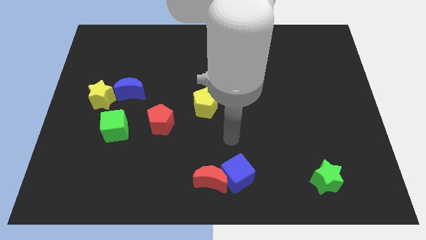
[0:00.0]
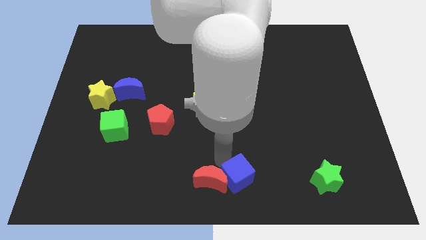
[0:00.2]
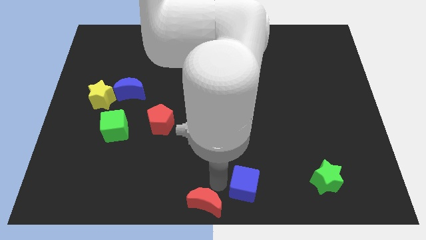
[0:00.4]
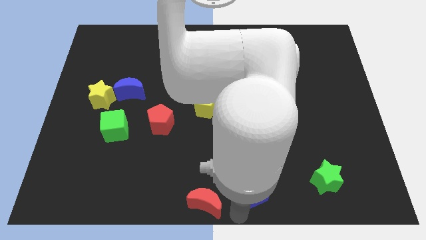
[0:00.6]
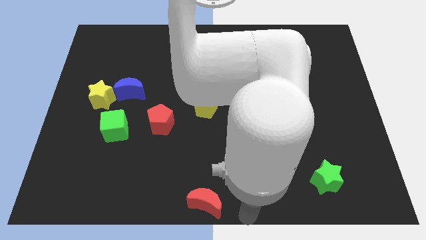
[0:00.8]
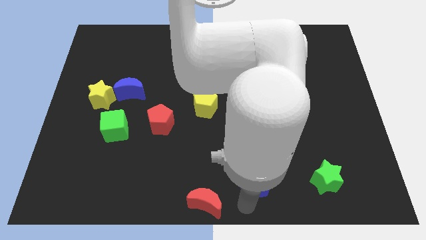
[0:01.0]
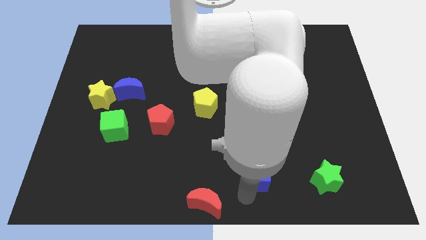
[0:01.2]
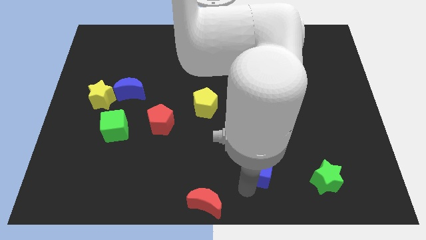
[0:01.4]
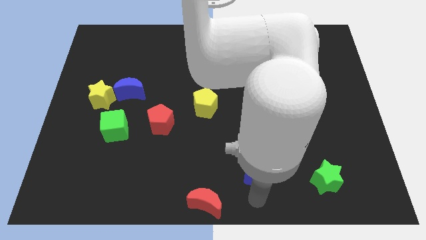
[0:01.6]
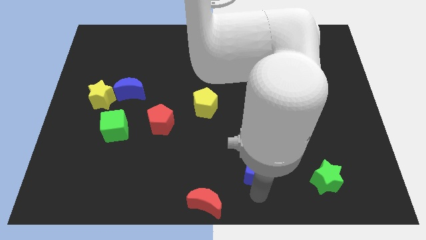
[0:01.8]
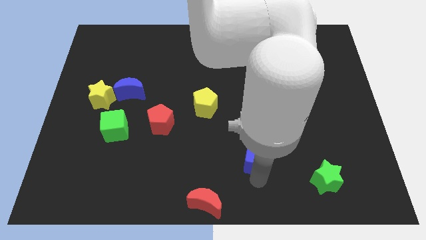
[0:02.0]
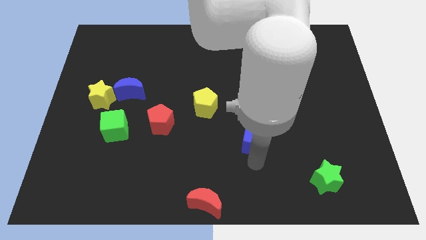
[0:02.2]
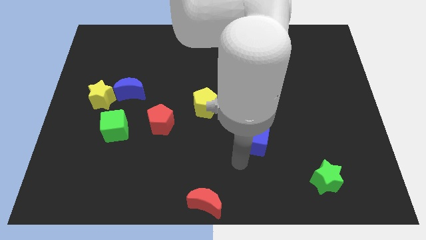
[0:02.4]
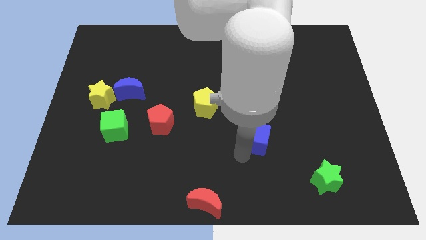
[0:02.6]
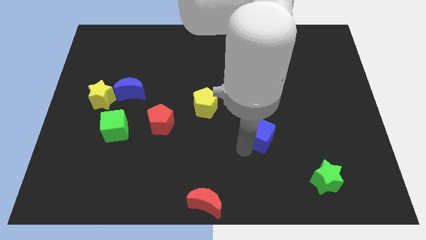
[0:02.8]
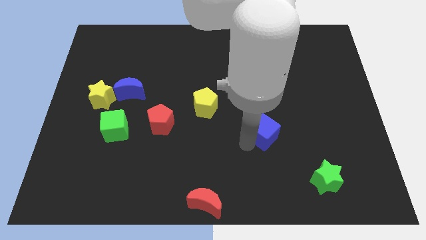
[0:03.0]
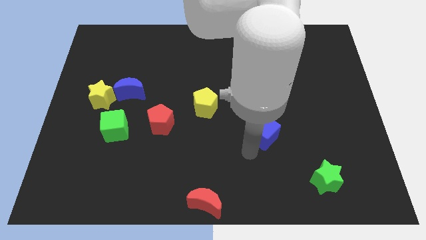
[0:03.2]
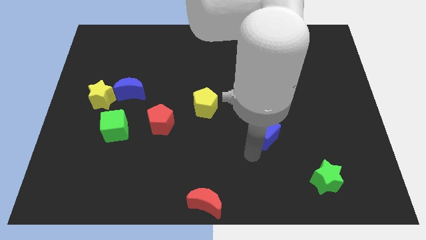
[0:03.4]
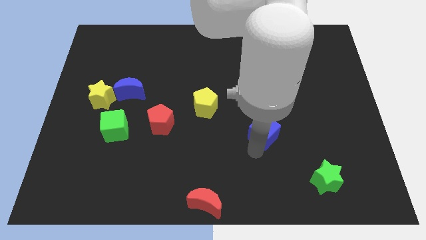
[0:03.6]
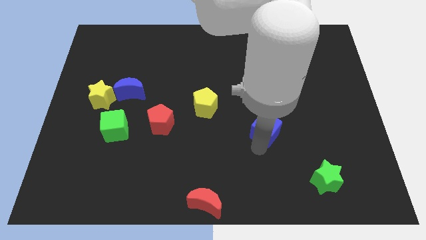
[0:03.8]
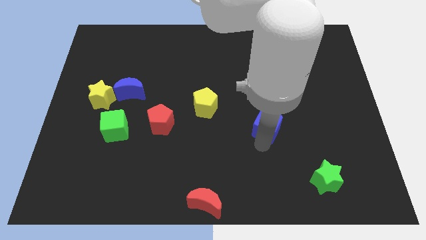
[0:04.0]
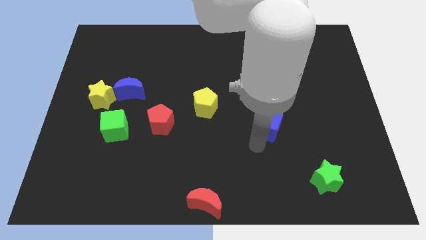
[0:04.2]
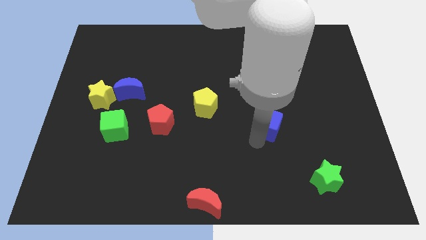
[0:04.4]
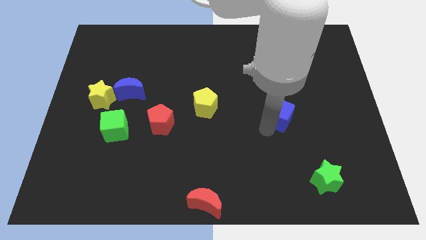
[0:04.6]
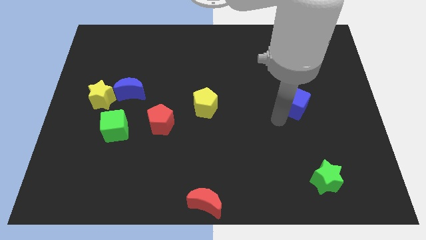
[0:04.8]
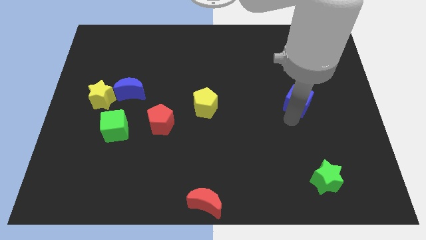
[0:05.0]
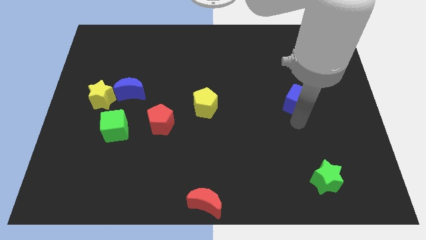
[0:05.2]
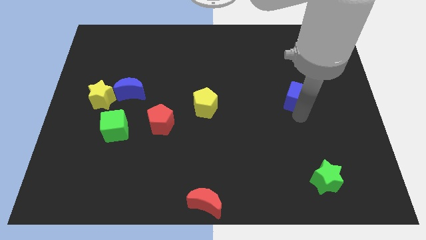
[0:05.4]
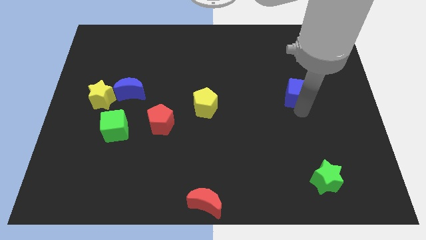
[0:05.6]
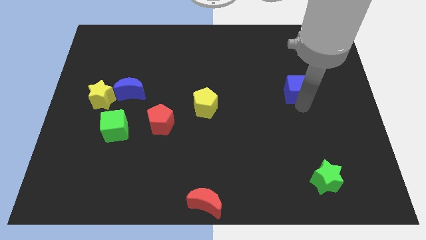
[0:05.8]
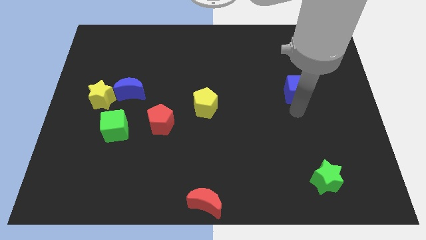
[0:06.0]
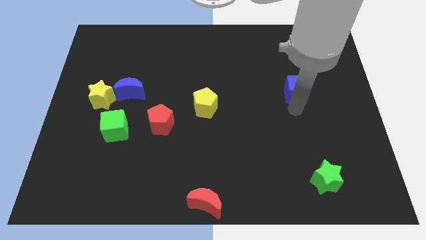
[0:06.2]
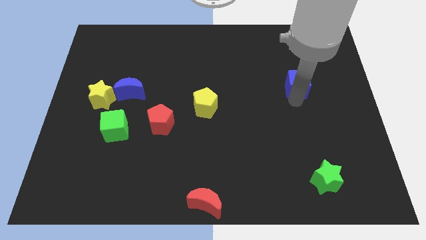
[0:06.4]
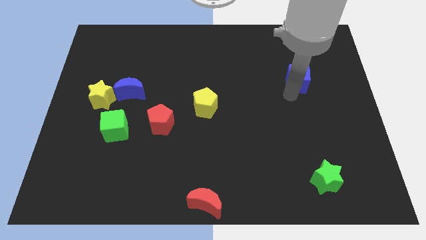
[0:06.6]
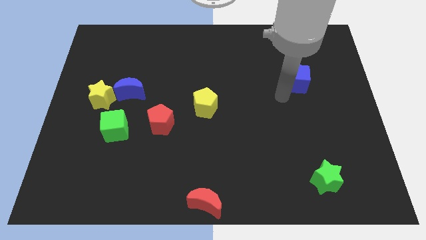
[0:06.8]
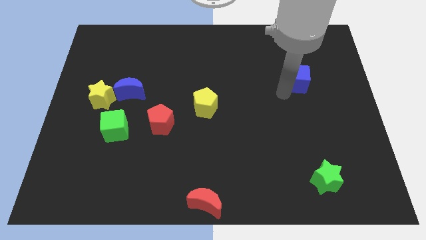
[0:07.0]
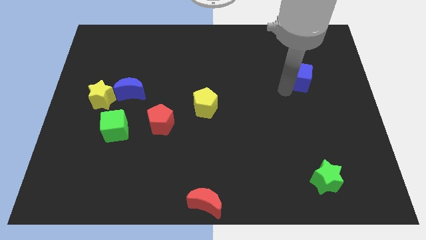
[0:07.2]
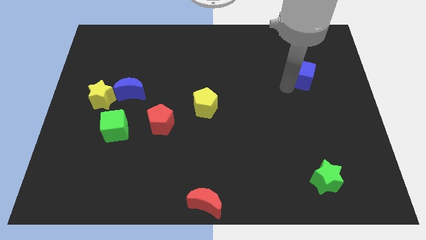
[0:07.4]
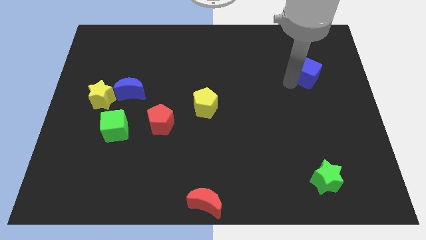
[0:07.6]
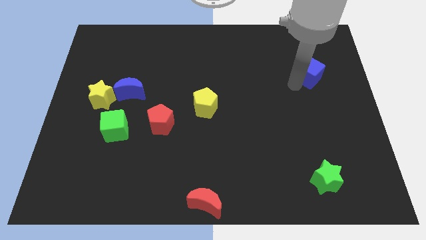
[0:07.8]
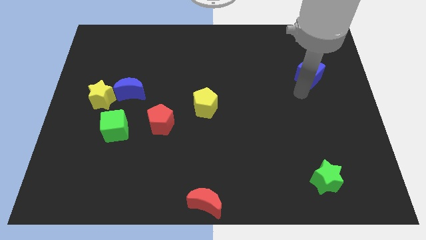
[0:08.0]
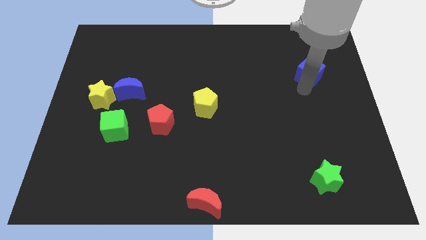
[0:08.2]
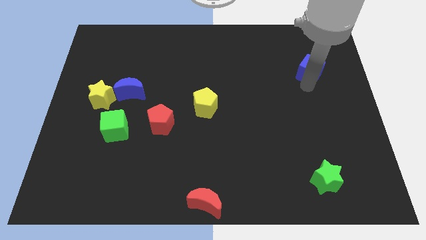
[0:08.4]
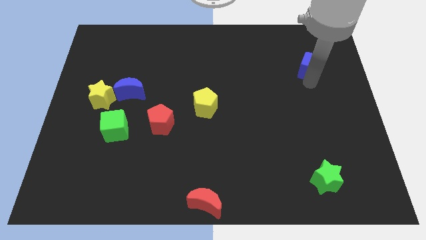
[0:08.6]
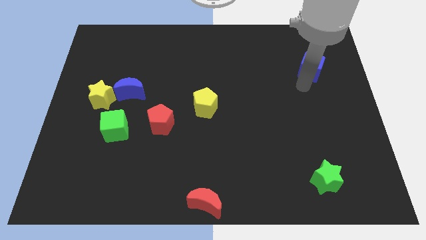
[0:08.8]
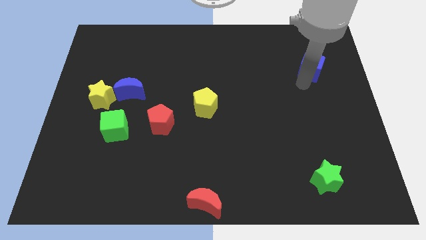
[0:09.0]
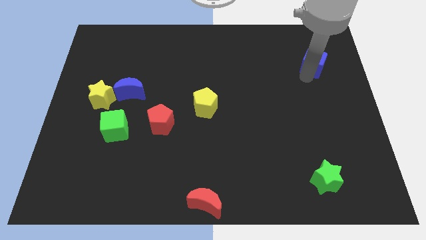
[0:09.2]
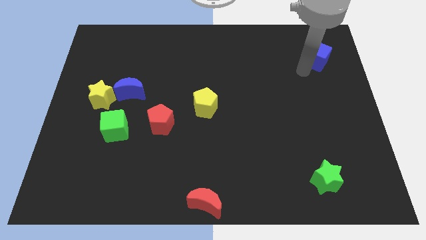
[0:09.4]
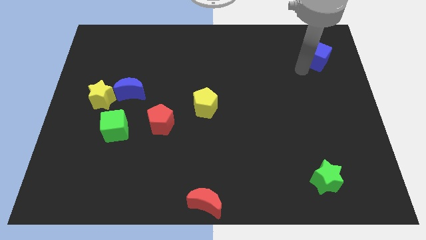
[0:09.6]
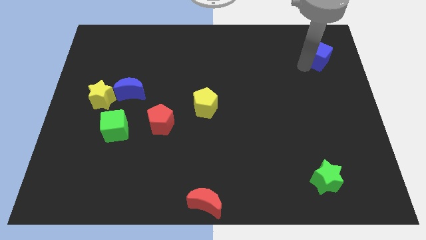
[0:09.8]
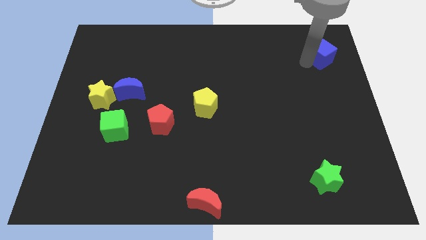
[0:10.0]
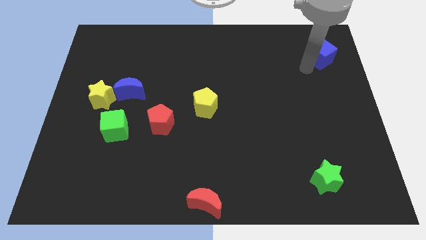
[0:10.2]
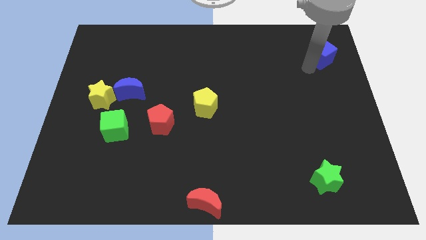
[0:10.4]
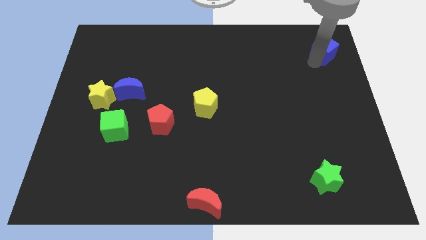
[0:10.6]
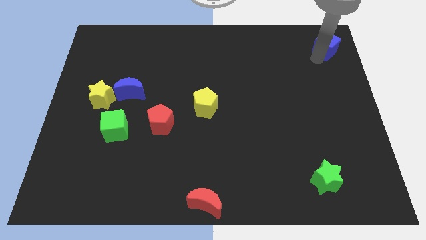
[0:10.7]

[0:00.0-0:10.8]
push the blue cube to the top right of the board

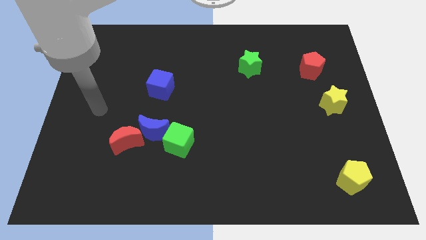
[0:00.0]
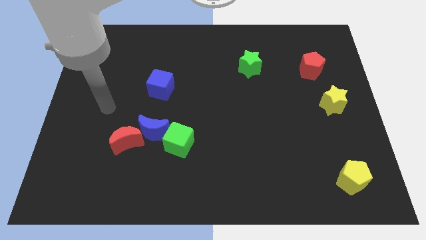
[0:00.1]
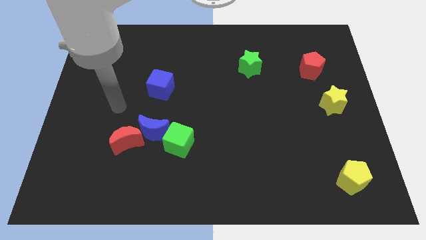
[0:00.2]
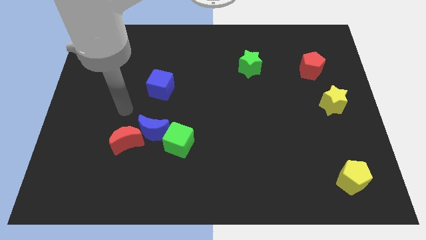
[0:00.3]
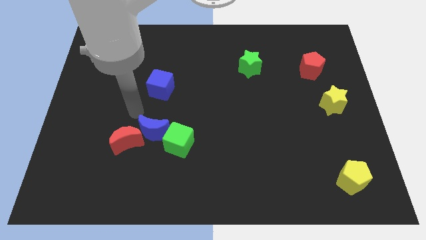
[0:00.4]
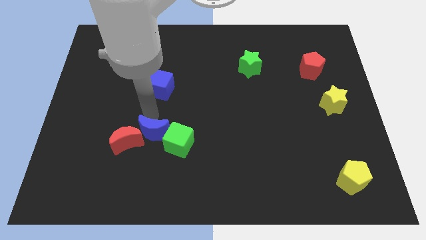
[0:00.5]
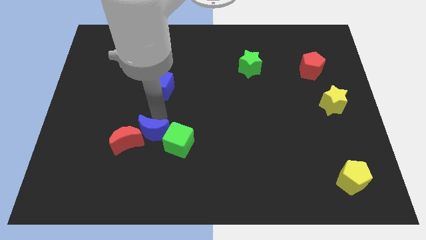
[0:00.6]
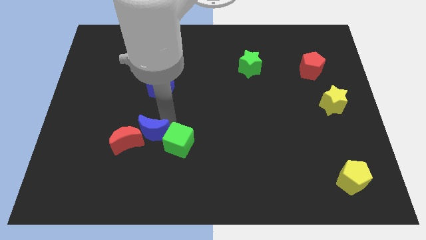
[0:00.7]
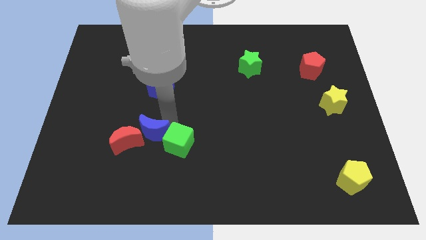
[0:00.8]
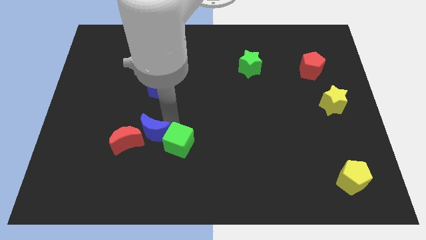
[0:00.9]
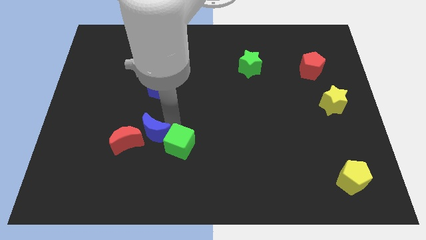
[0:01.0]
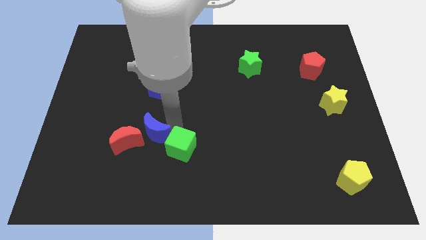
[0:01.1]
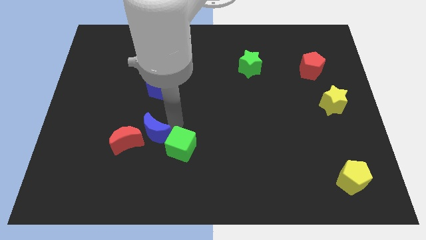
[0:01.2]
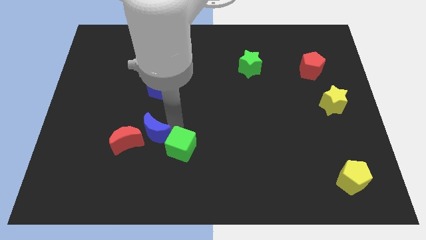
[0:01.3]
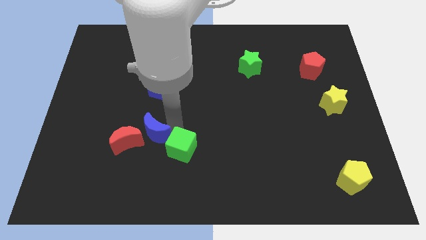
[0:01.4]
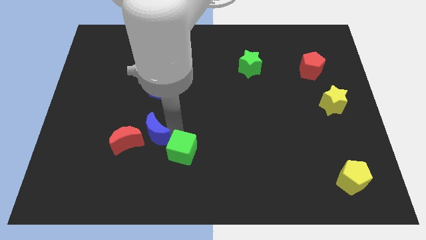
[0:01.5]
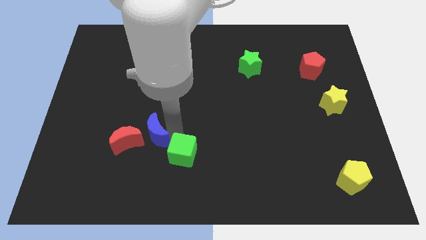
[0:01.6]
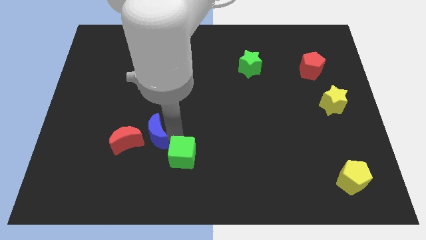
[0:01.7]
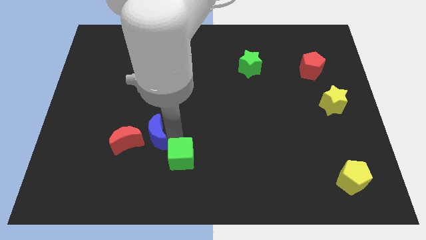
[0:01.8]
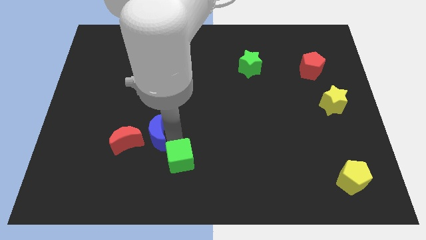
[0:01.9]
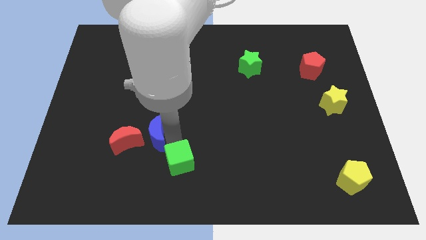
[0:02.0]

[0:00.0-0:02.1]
slide the green cube to the bottom
